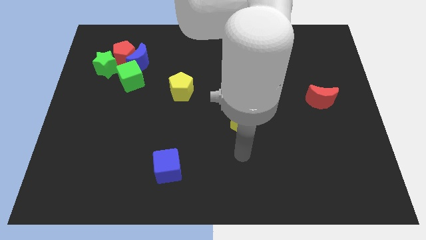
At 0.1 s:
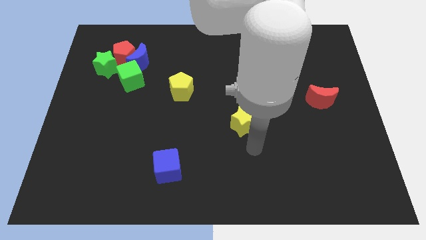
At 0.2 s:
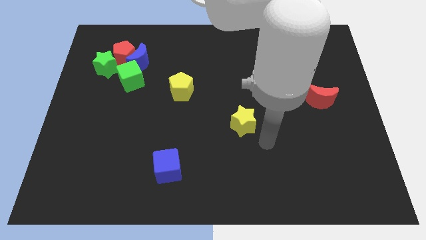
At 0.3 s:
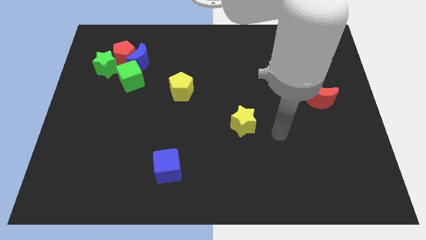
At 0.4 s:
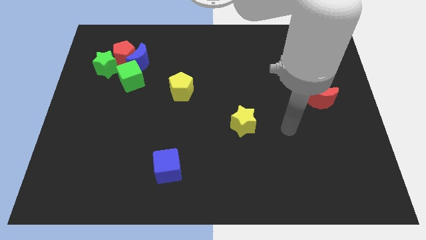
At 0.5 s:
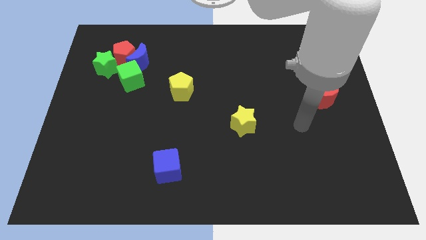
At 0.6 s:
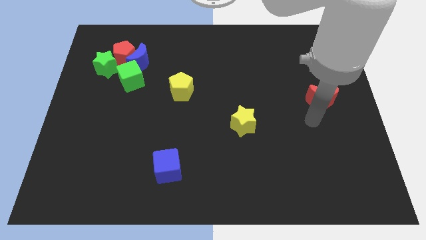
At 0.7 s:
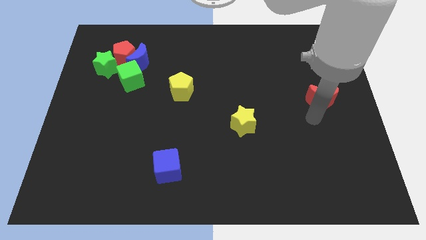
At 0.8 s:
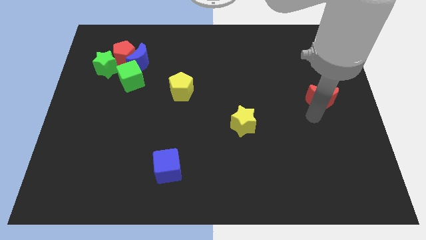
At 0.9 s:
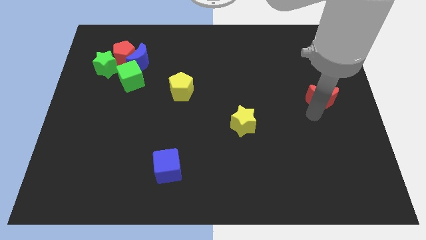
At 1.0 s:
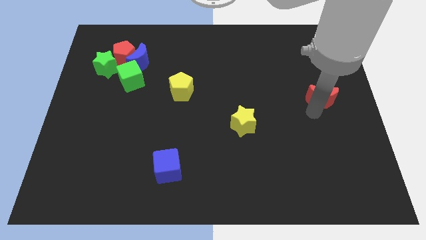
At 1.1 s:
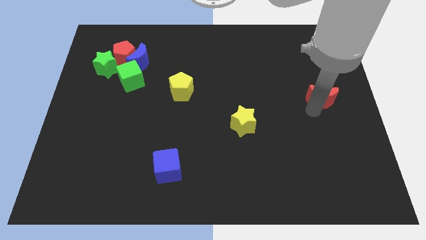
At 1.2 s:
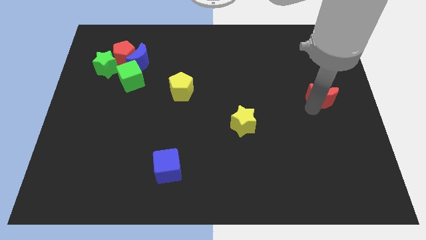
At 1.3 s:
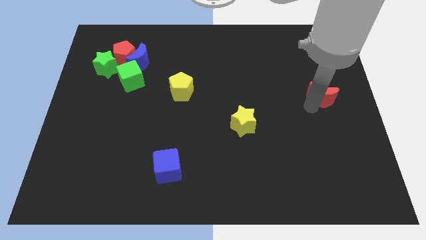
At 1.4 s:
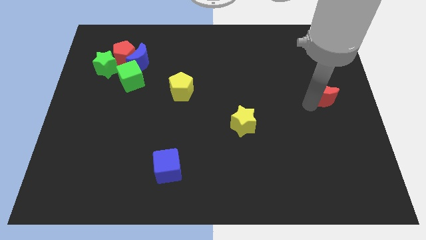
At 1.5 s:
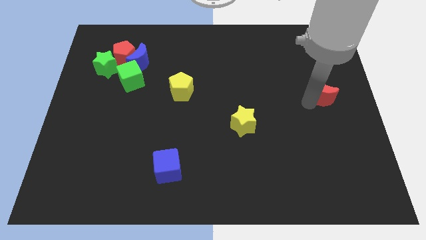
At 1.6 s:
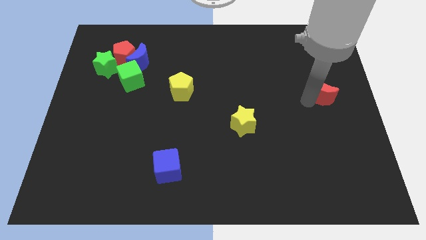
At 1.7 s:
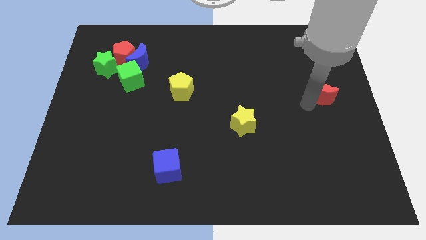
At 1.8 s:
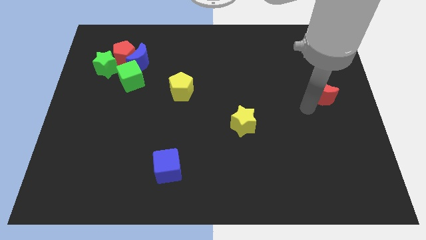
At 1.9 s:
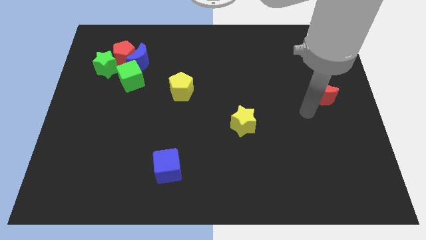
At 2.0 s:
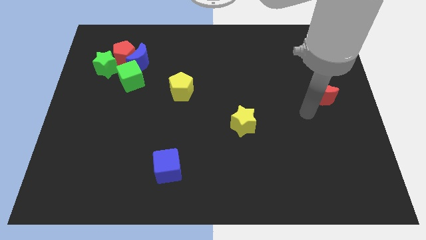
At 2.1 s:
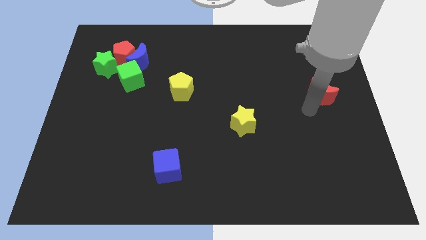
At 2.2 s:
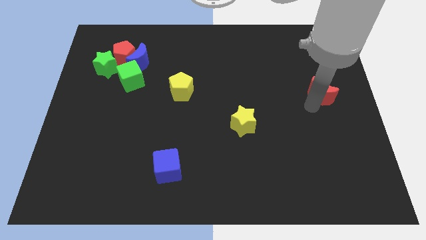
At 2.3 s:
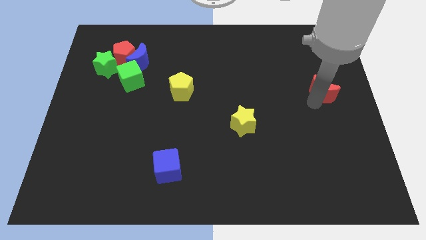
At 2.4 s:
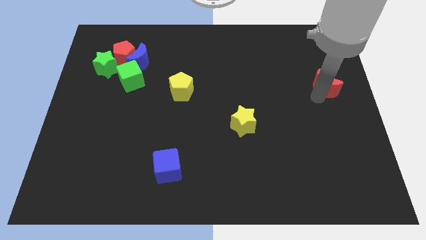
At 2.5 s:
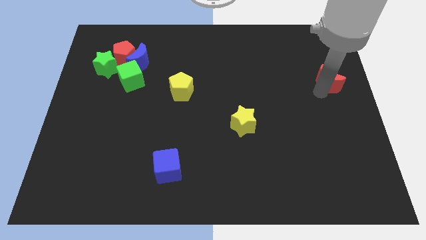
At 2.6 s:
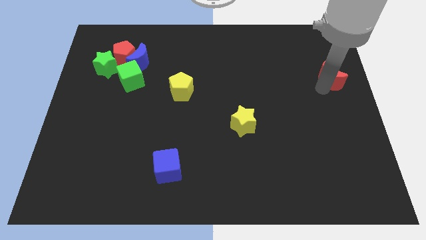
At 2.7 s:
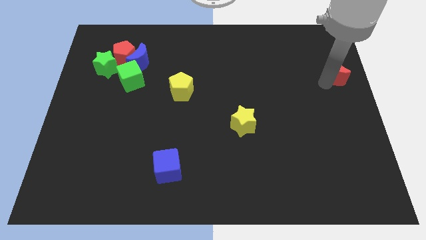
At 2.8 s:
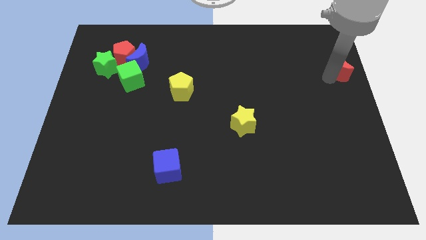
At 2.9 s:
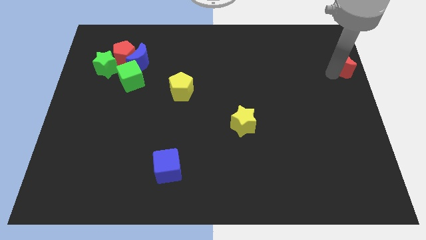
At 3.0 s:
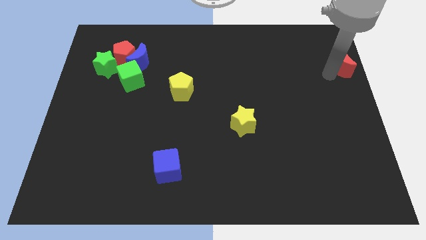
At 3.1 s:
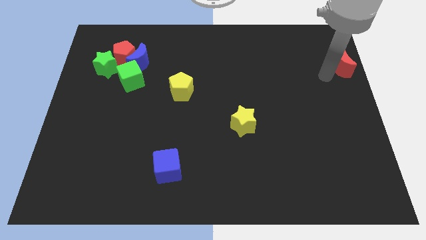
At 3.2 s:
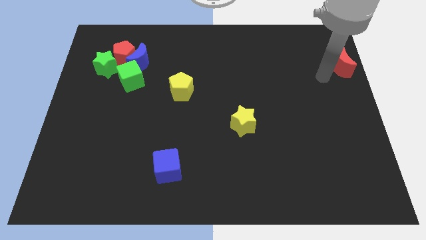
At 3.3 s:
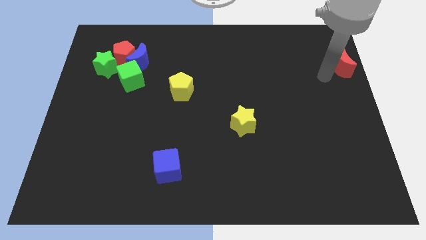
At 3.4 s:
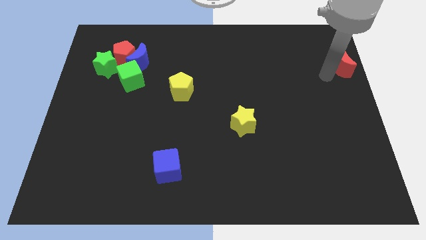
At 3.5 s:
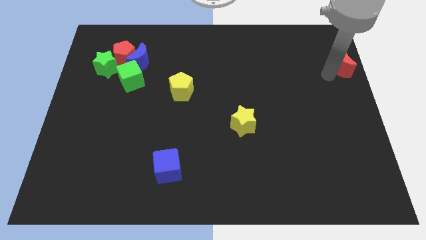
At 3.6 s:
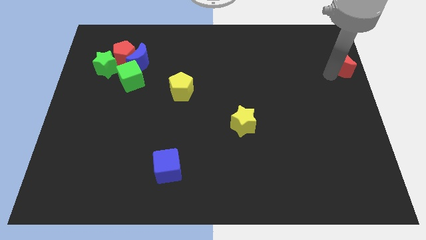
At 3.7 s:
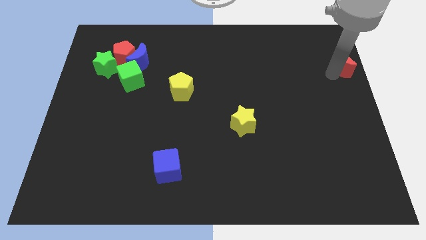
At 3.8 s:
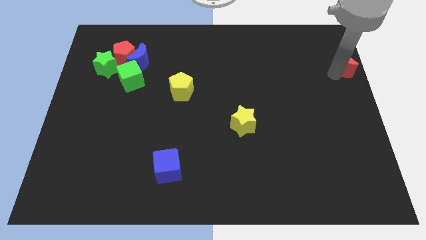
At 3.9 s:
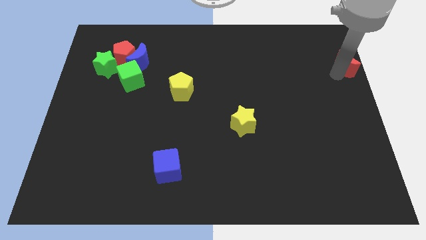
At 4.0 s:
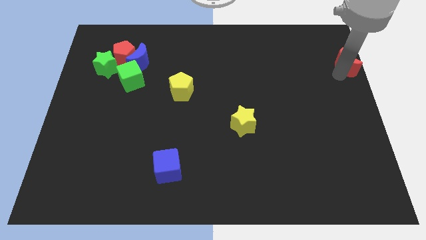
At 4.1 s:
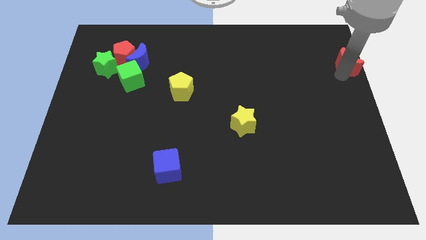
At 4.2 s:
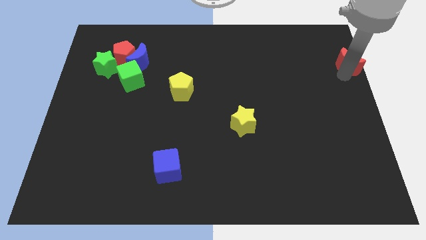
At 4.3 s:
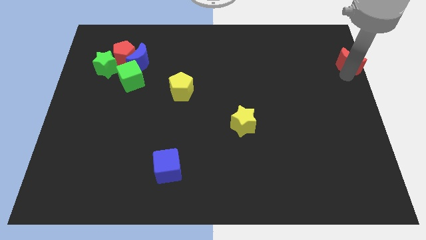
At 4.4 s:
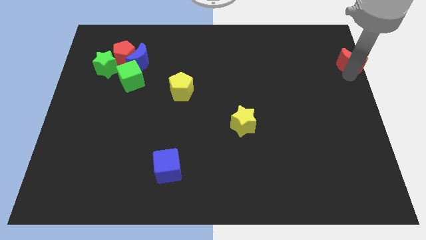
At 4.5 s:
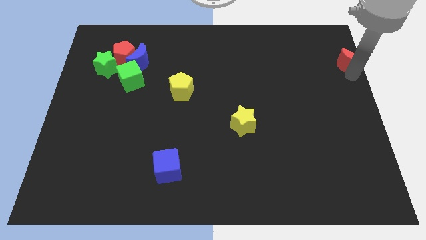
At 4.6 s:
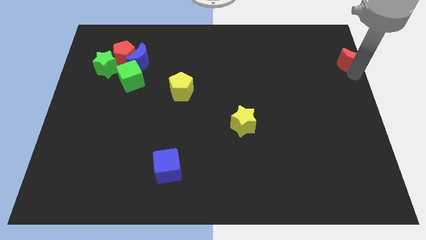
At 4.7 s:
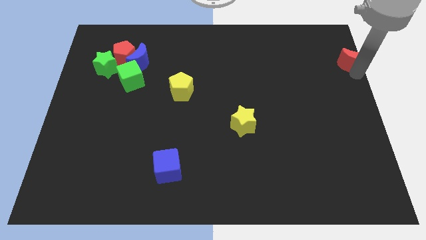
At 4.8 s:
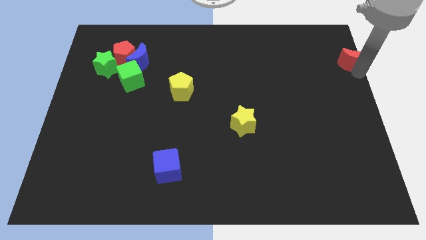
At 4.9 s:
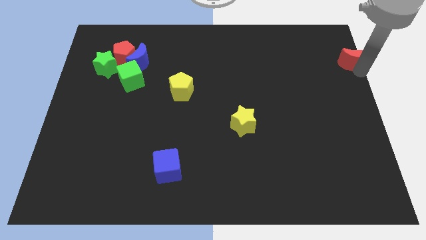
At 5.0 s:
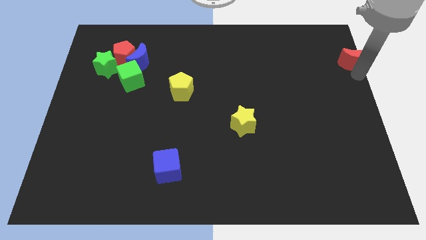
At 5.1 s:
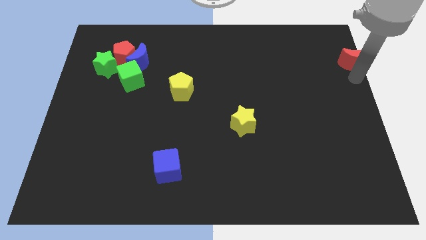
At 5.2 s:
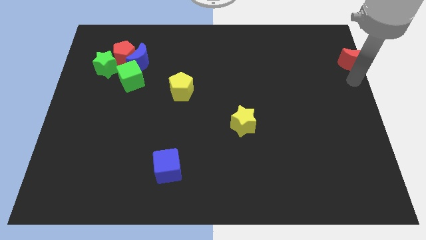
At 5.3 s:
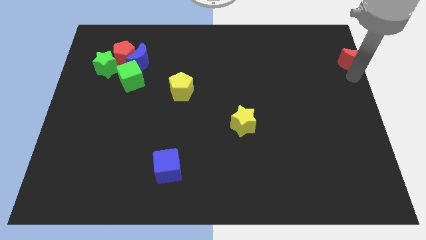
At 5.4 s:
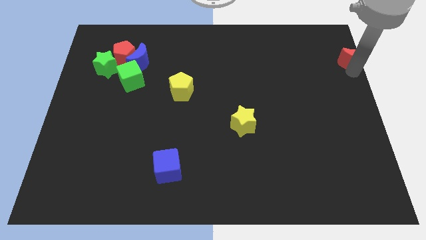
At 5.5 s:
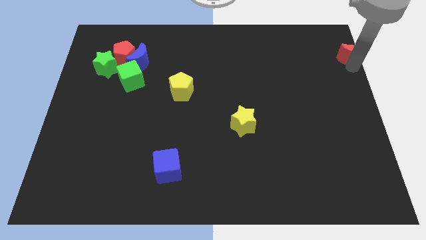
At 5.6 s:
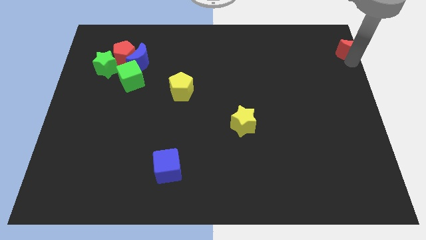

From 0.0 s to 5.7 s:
move the red moon to the top right
